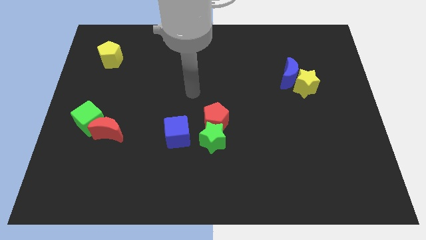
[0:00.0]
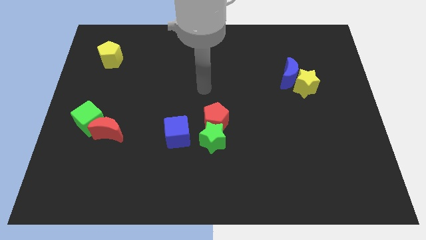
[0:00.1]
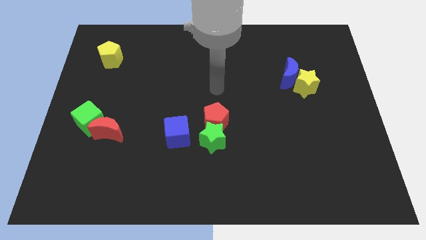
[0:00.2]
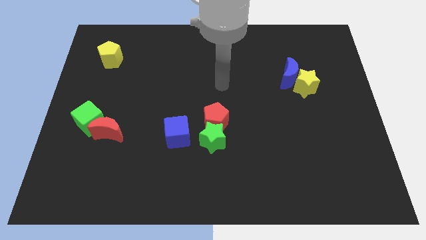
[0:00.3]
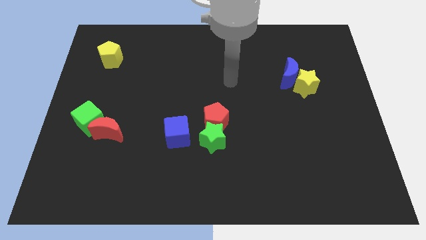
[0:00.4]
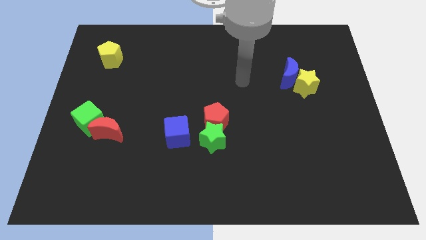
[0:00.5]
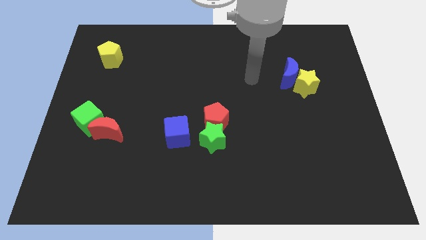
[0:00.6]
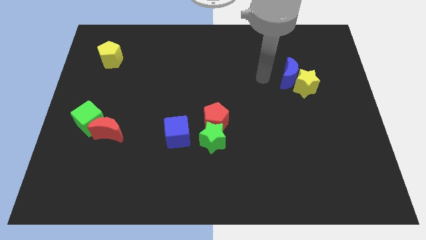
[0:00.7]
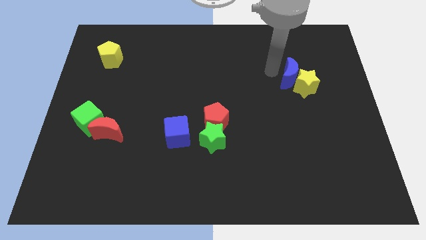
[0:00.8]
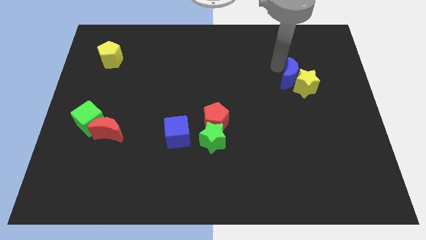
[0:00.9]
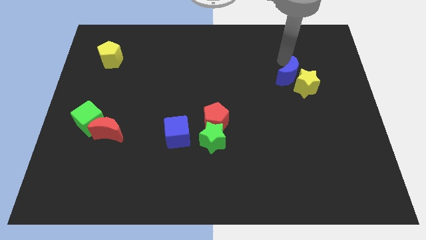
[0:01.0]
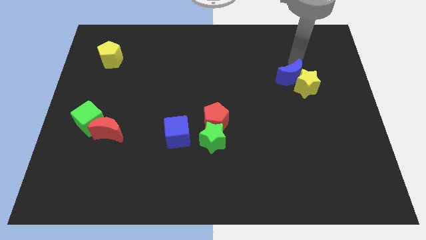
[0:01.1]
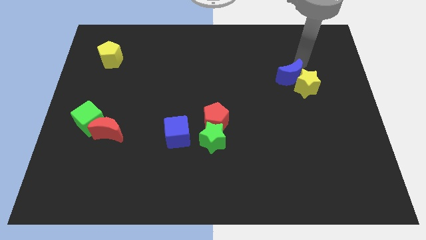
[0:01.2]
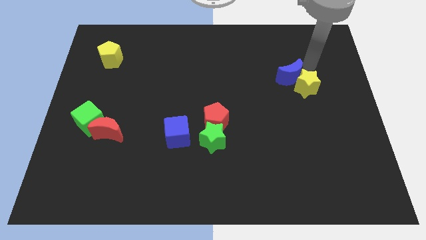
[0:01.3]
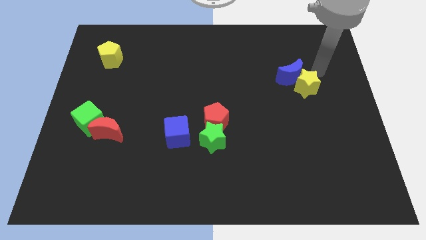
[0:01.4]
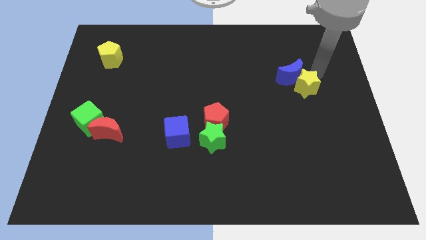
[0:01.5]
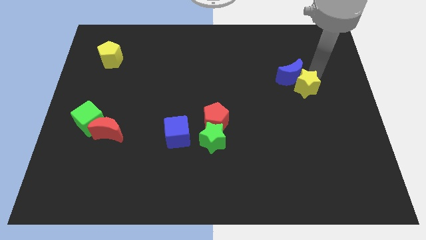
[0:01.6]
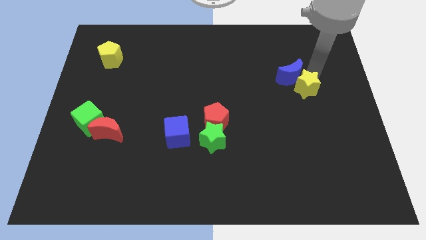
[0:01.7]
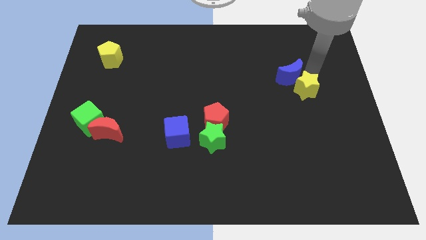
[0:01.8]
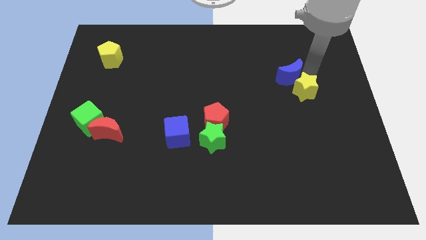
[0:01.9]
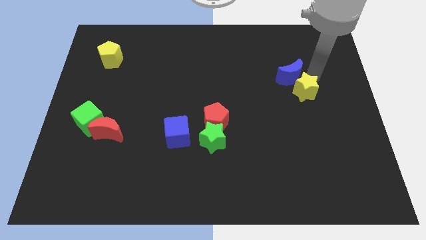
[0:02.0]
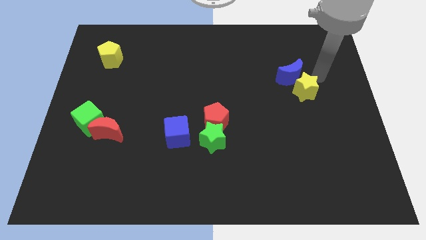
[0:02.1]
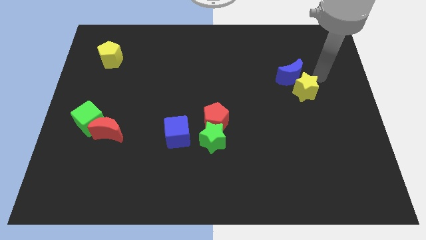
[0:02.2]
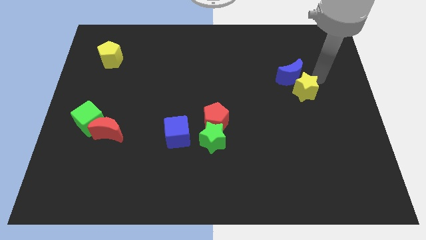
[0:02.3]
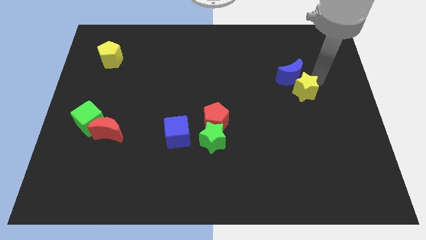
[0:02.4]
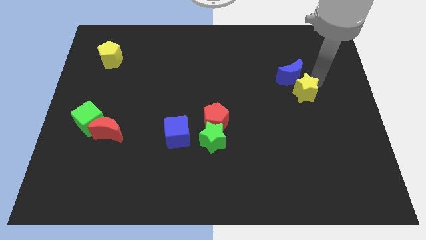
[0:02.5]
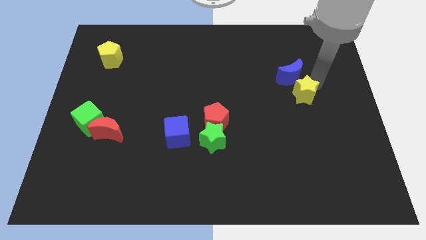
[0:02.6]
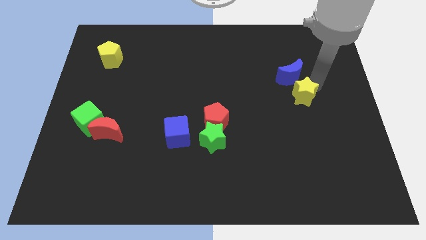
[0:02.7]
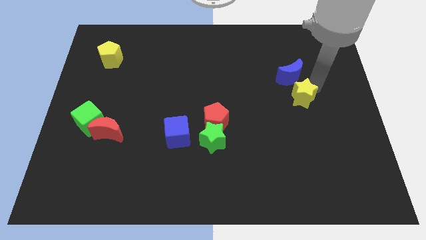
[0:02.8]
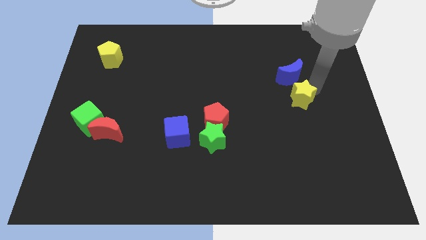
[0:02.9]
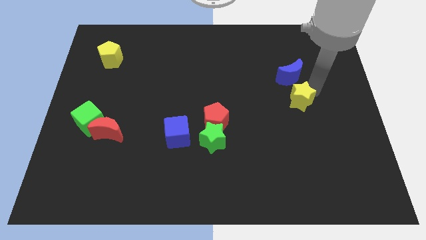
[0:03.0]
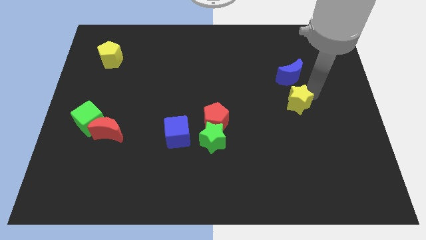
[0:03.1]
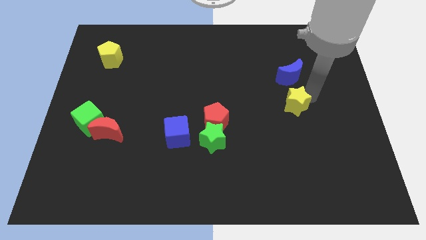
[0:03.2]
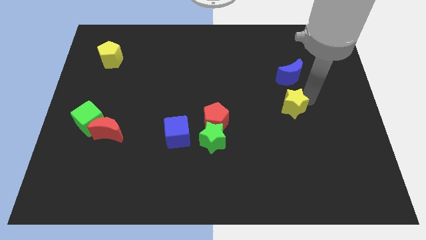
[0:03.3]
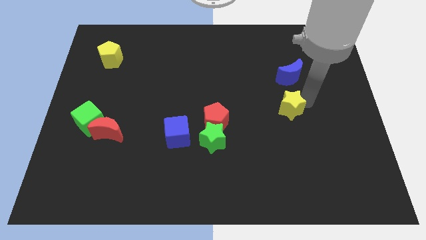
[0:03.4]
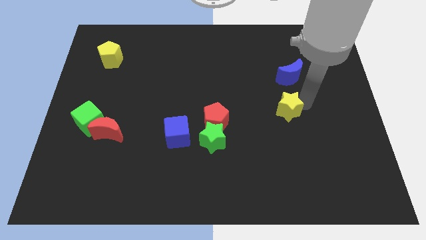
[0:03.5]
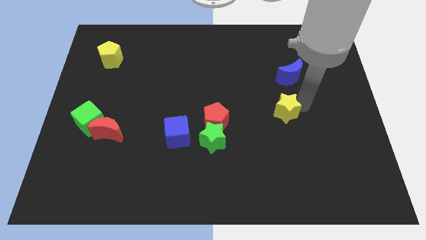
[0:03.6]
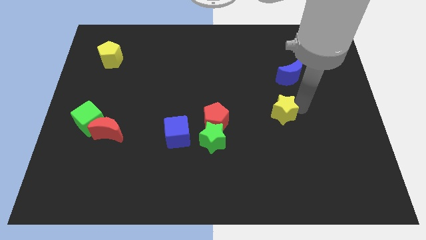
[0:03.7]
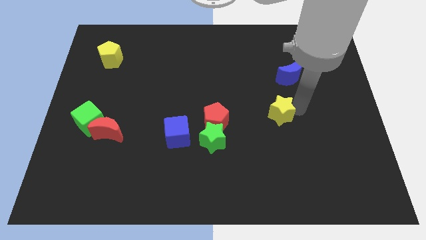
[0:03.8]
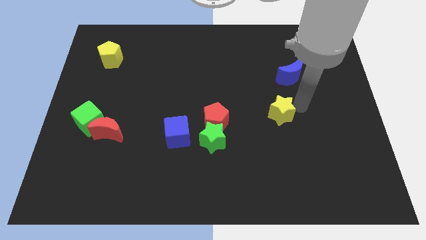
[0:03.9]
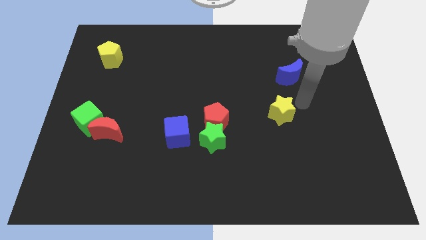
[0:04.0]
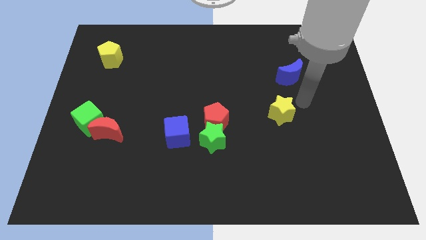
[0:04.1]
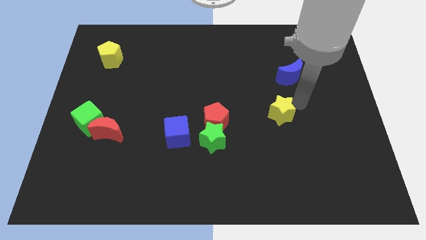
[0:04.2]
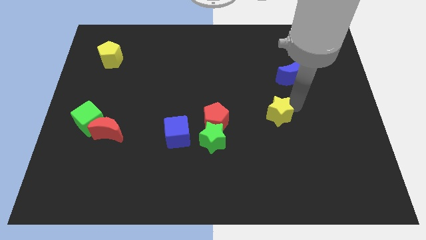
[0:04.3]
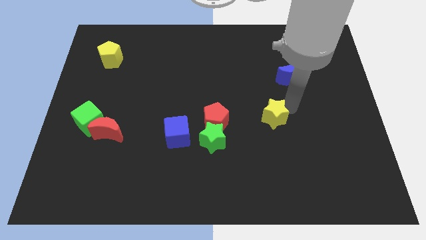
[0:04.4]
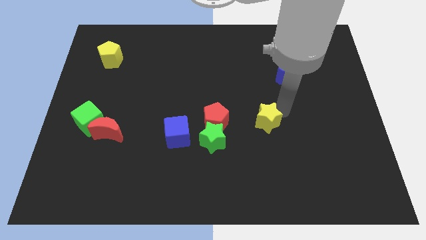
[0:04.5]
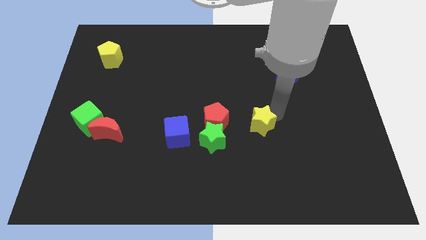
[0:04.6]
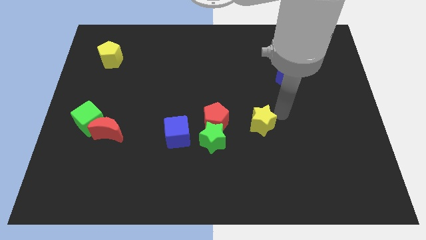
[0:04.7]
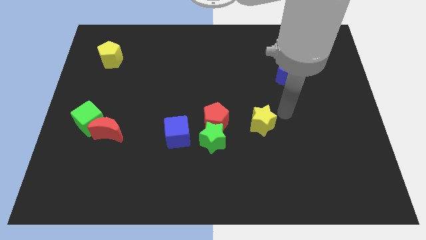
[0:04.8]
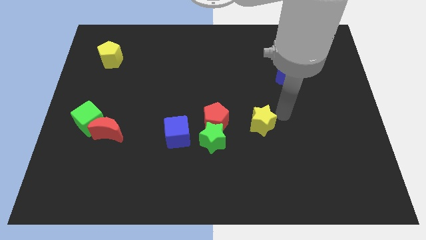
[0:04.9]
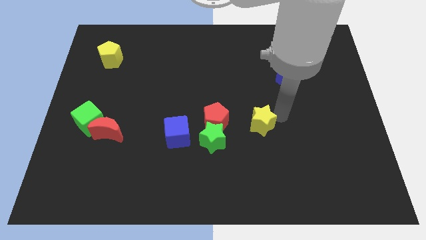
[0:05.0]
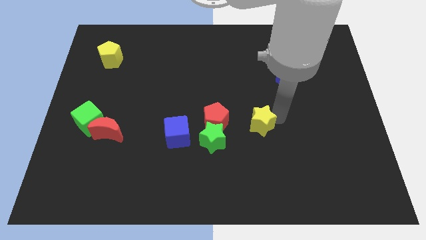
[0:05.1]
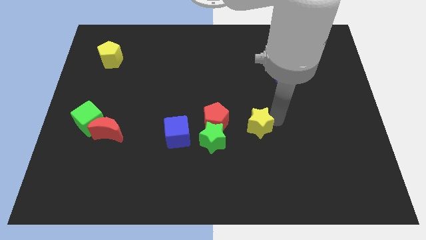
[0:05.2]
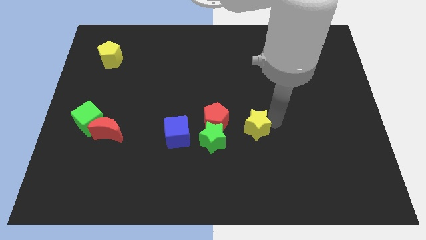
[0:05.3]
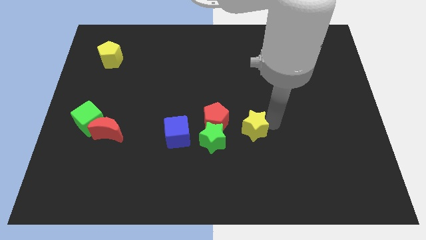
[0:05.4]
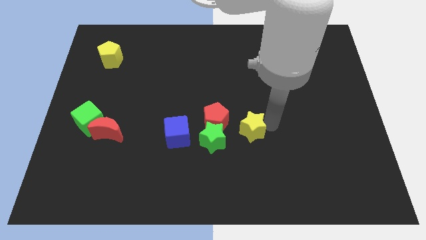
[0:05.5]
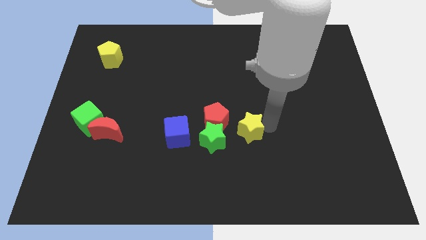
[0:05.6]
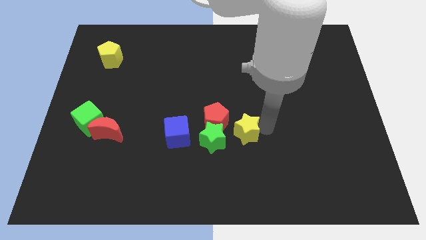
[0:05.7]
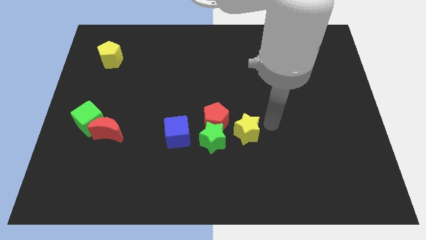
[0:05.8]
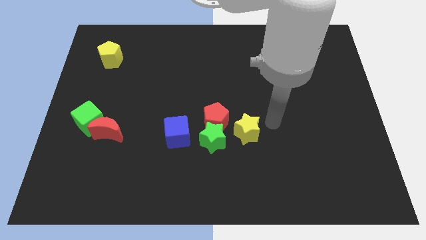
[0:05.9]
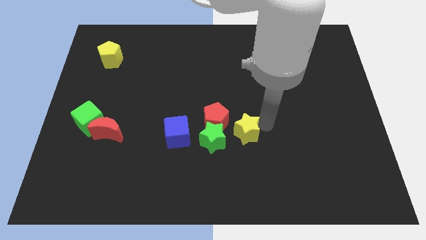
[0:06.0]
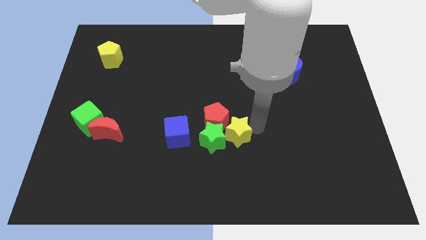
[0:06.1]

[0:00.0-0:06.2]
push the yellow star close to the green star

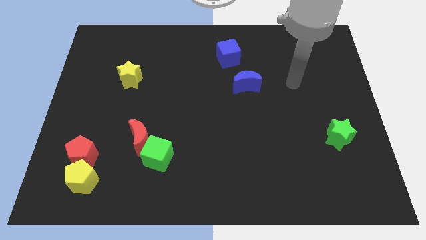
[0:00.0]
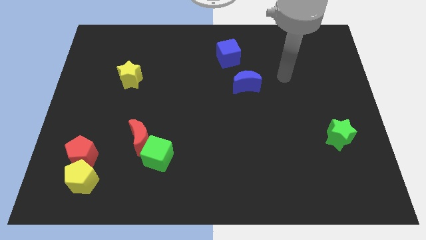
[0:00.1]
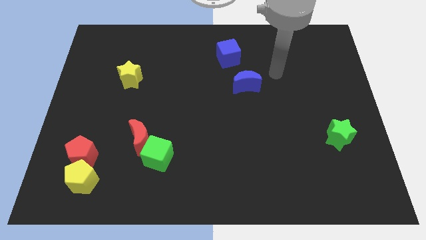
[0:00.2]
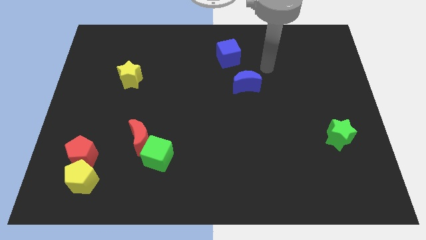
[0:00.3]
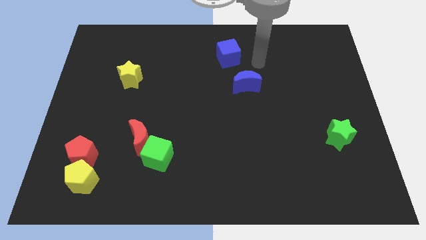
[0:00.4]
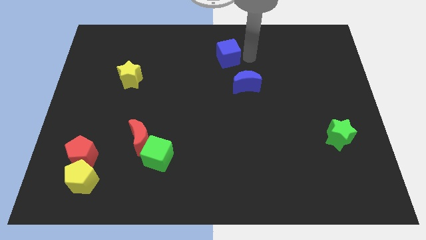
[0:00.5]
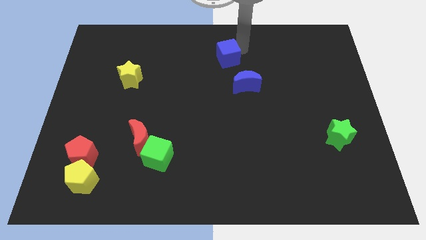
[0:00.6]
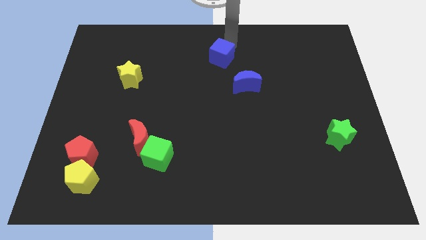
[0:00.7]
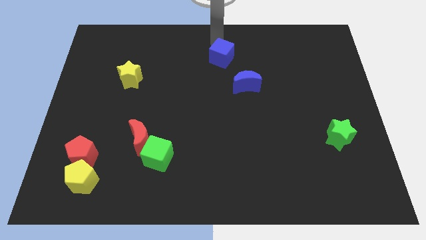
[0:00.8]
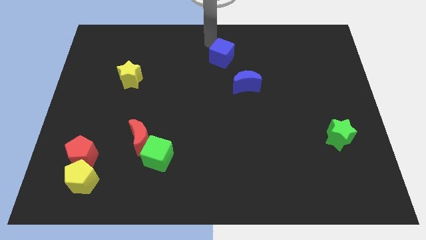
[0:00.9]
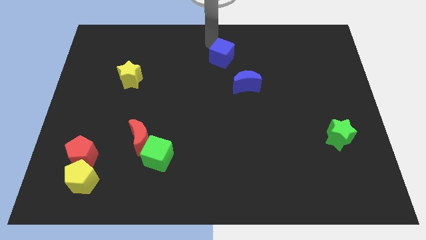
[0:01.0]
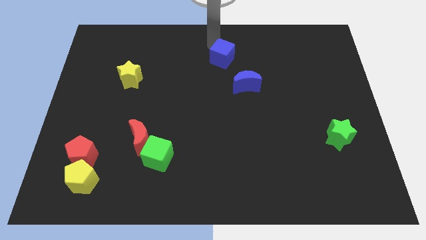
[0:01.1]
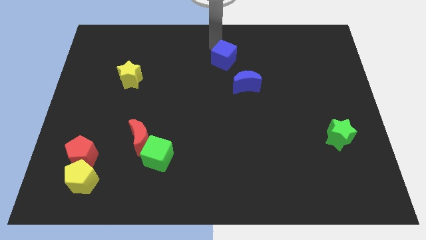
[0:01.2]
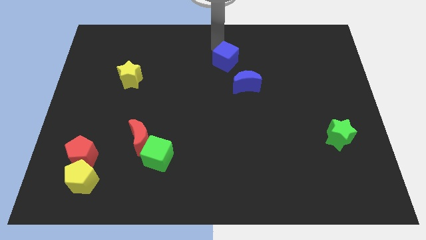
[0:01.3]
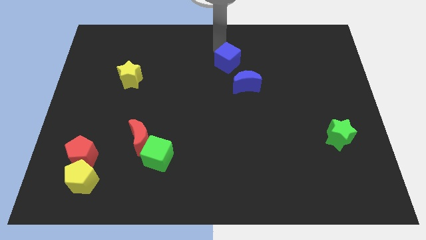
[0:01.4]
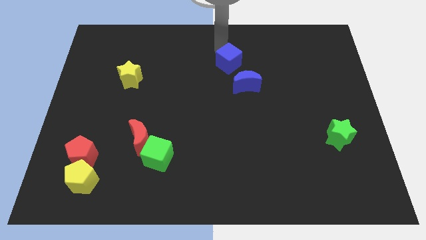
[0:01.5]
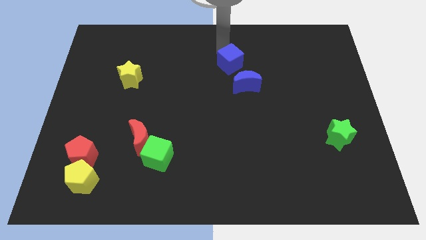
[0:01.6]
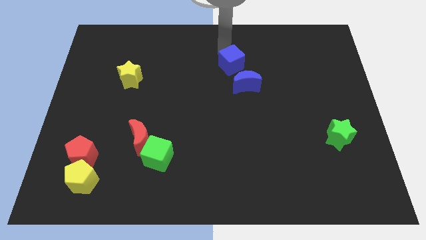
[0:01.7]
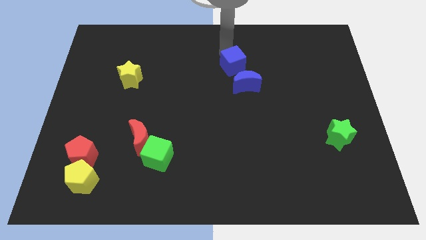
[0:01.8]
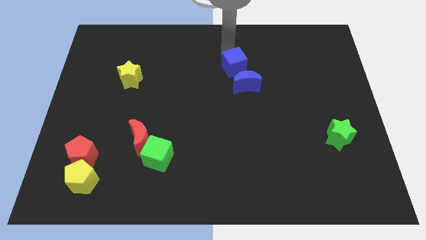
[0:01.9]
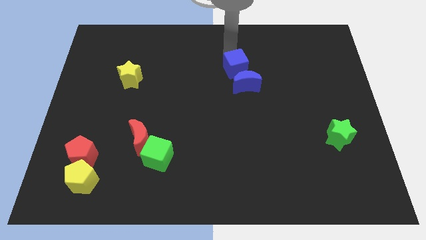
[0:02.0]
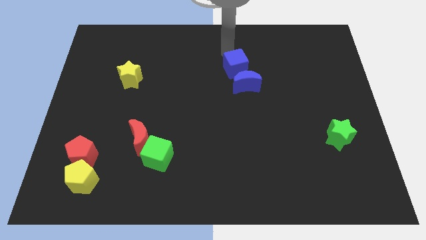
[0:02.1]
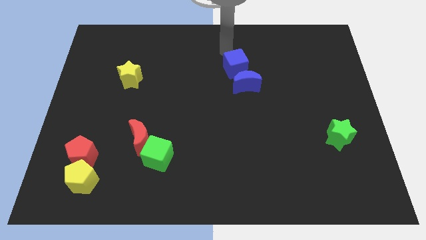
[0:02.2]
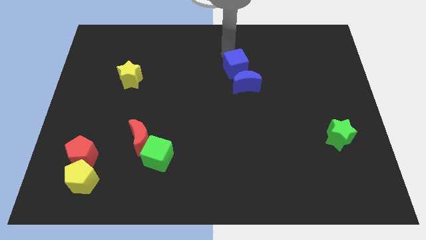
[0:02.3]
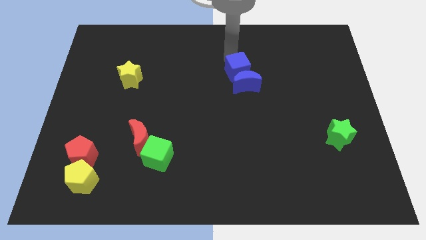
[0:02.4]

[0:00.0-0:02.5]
slide the blue cube close to the blue moon
